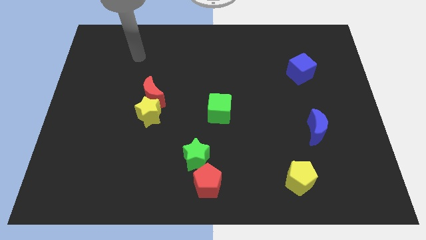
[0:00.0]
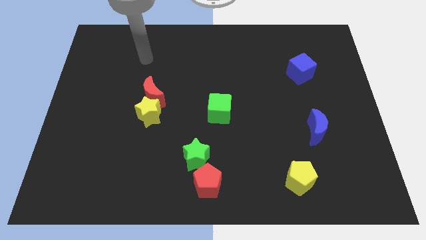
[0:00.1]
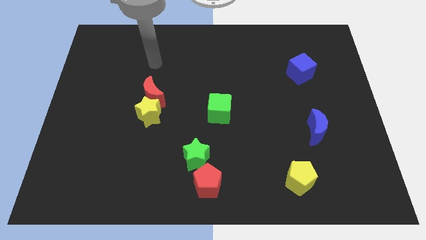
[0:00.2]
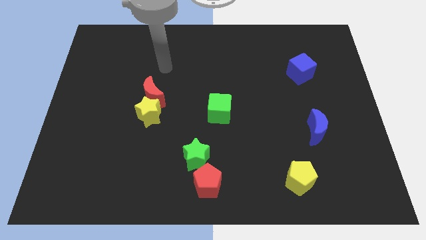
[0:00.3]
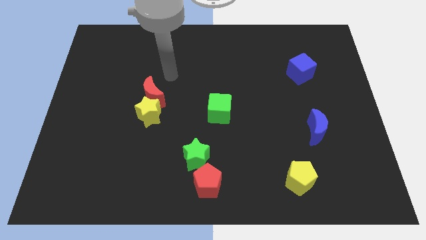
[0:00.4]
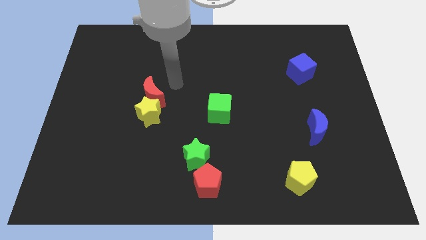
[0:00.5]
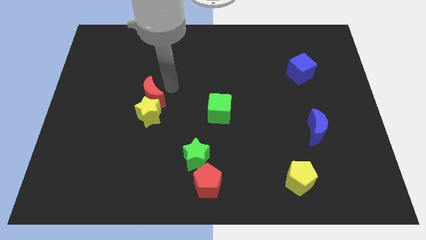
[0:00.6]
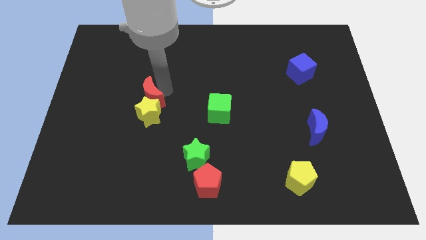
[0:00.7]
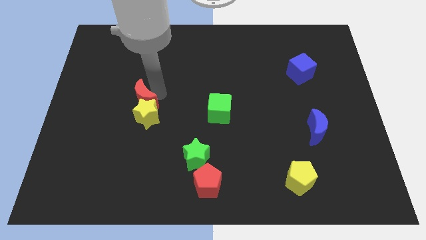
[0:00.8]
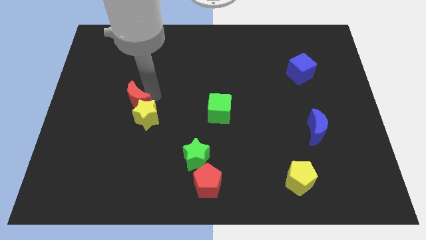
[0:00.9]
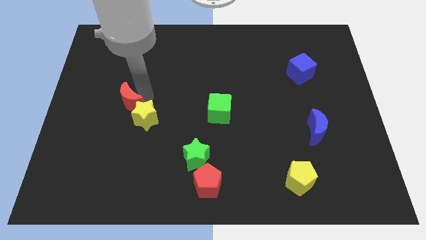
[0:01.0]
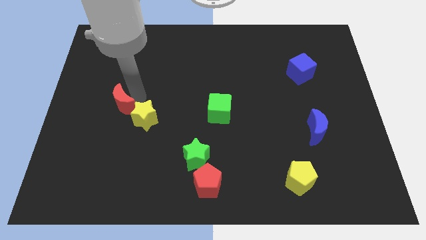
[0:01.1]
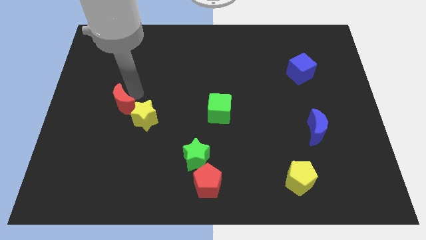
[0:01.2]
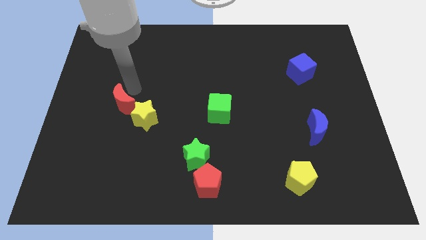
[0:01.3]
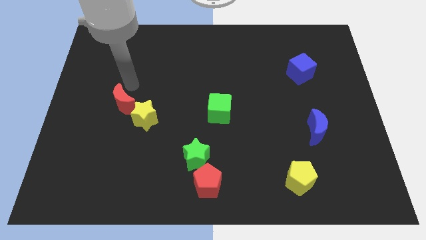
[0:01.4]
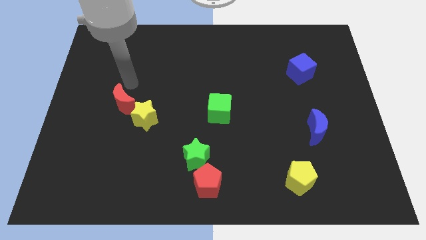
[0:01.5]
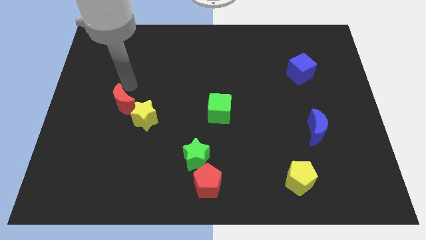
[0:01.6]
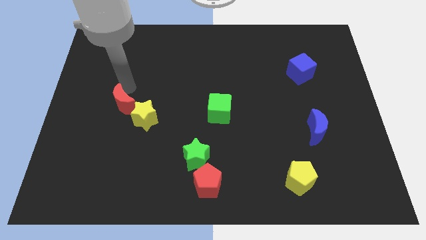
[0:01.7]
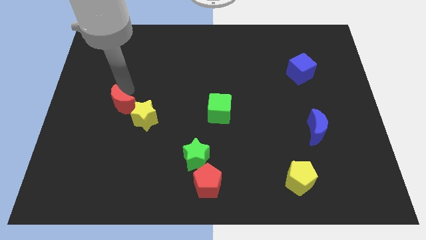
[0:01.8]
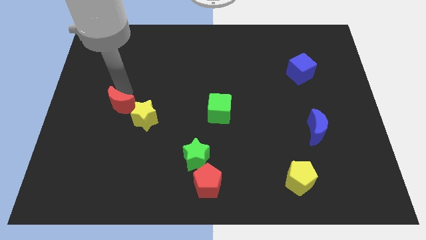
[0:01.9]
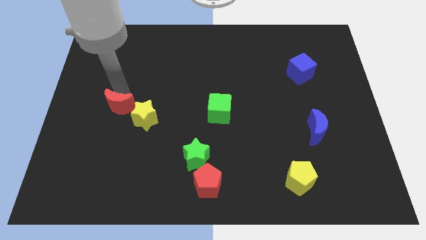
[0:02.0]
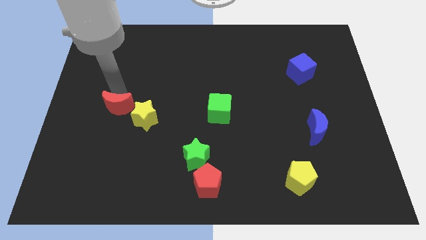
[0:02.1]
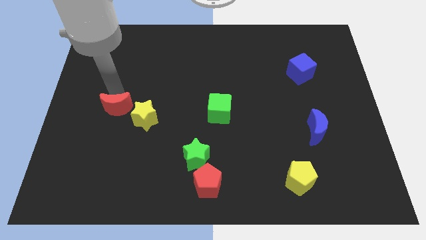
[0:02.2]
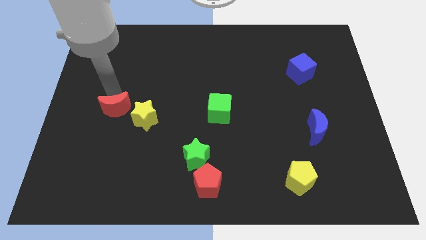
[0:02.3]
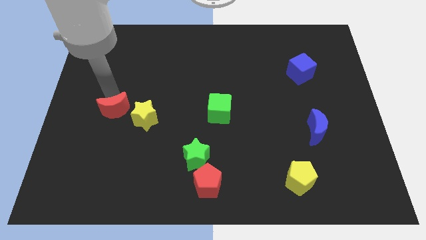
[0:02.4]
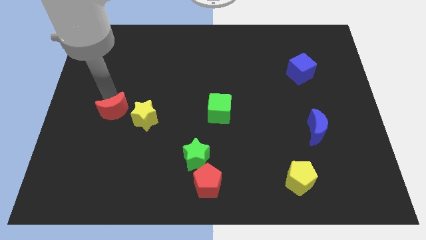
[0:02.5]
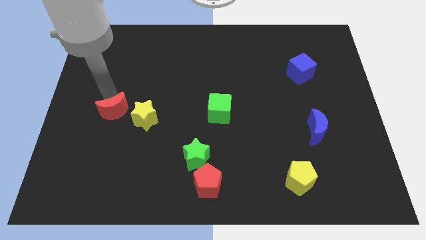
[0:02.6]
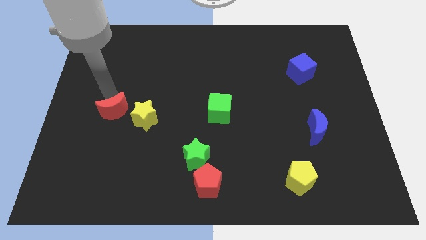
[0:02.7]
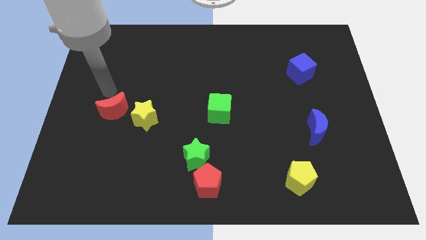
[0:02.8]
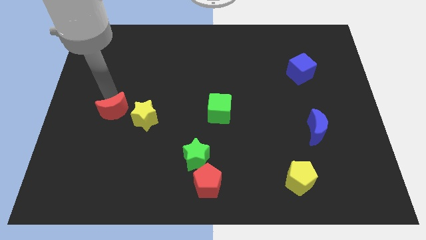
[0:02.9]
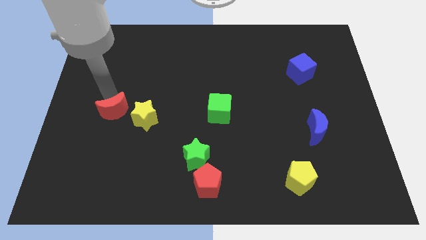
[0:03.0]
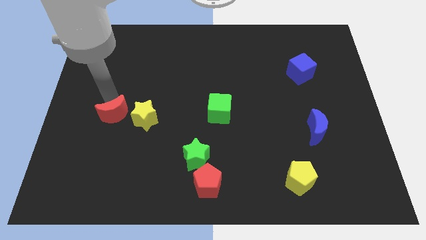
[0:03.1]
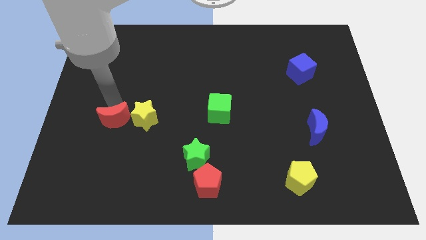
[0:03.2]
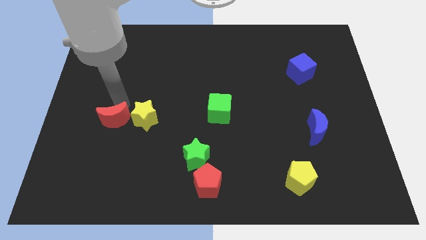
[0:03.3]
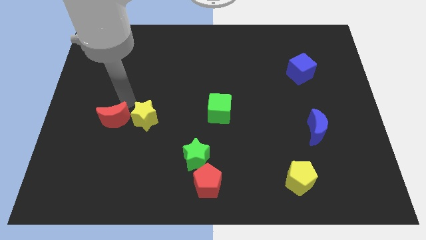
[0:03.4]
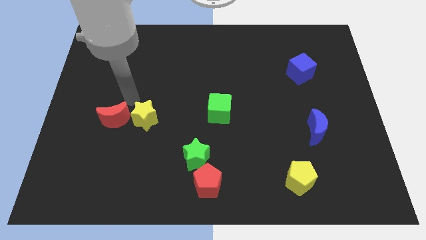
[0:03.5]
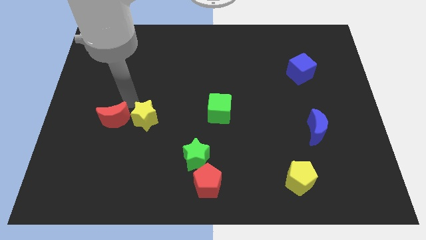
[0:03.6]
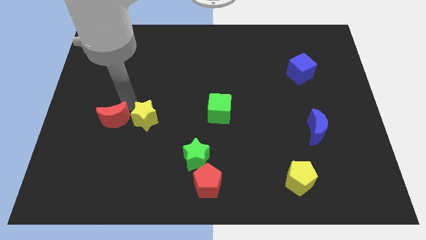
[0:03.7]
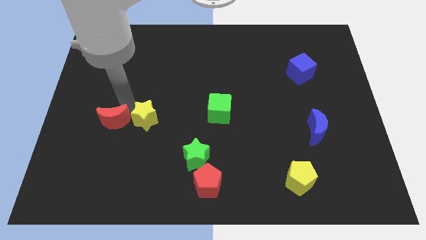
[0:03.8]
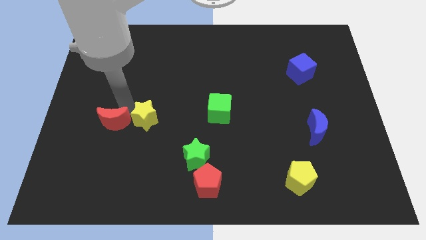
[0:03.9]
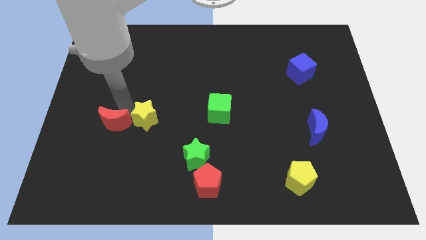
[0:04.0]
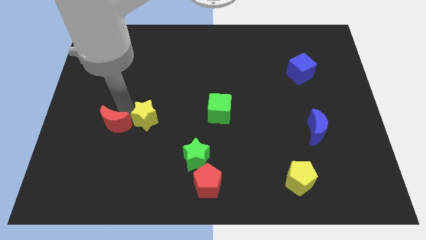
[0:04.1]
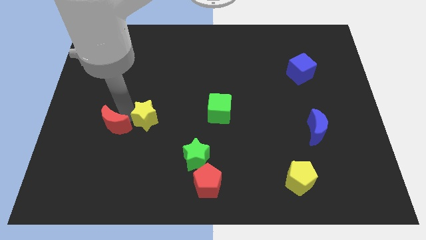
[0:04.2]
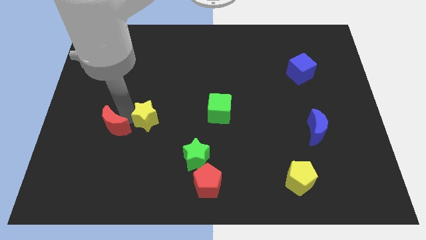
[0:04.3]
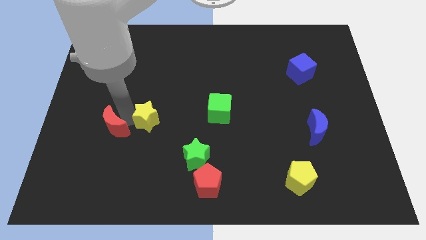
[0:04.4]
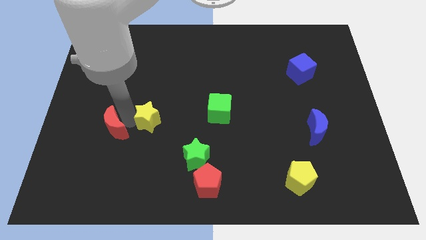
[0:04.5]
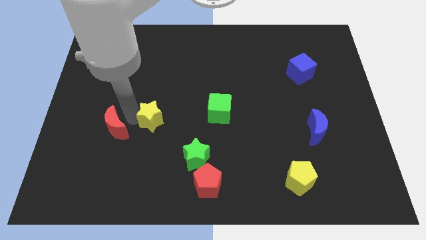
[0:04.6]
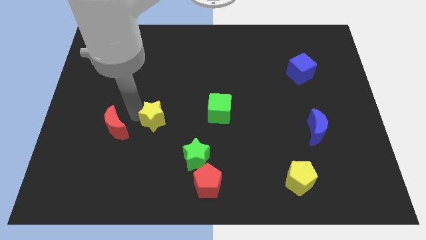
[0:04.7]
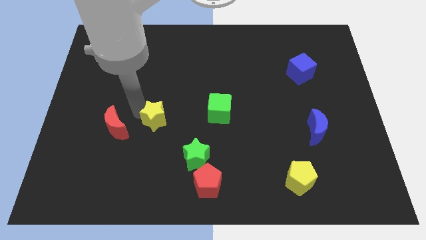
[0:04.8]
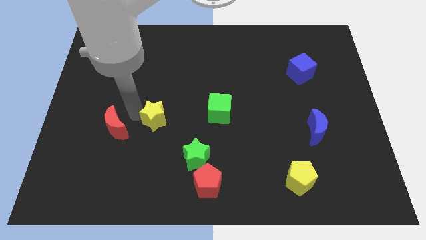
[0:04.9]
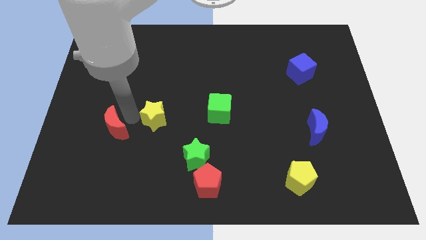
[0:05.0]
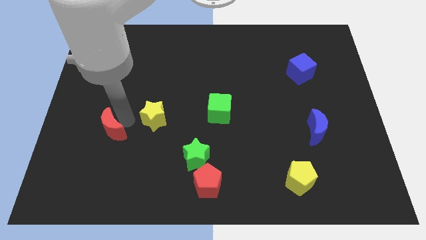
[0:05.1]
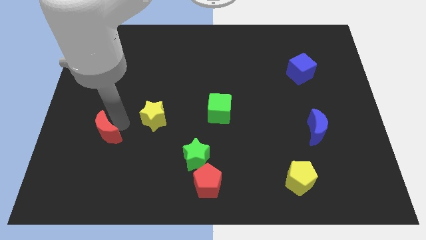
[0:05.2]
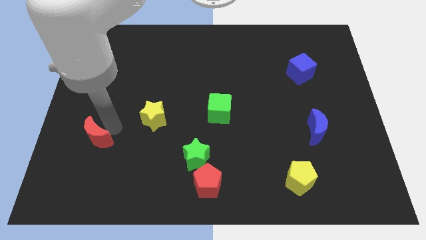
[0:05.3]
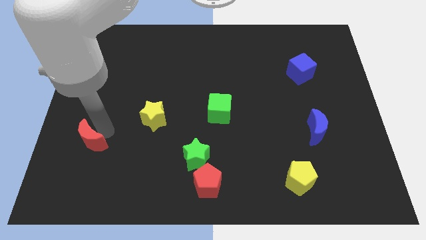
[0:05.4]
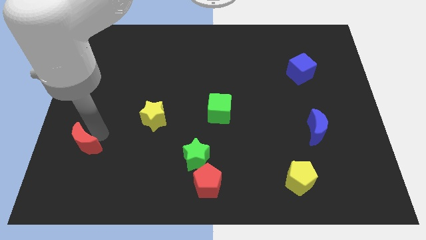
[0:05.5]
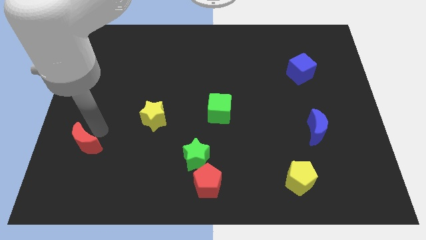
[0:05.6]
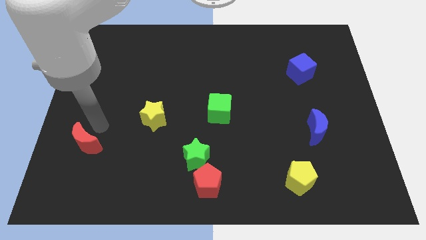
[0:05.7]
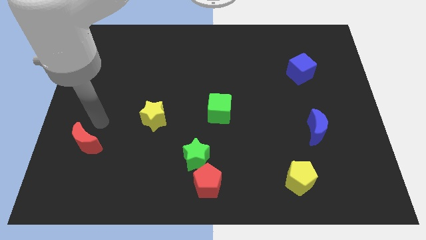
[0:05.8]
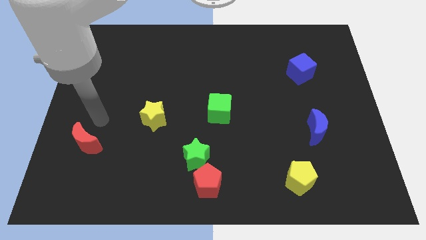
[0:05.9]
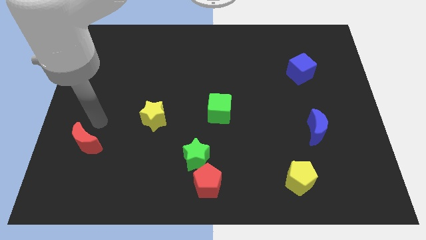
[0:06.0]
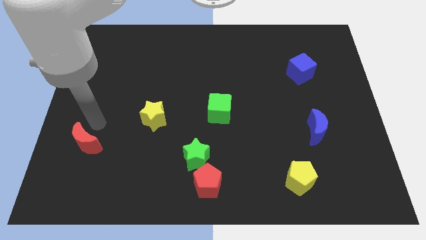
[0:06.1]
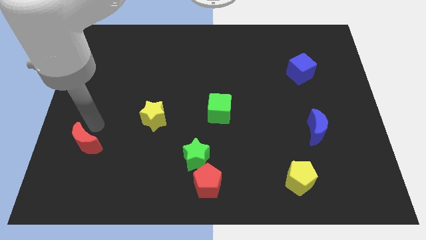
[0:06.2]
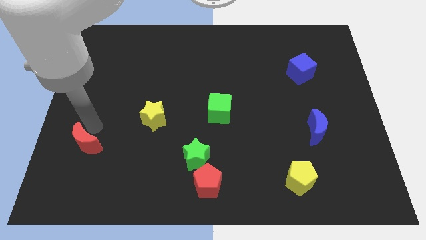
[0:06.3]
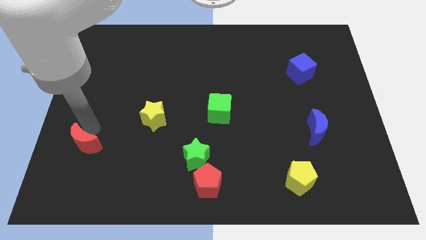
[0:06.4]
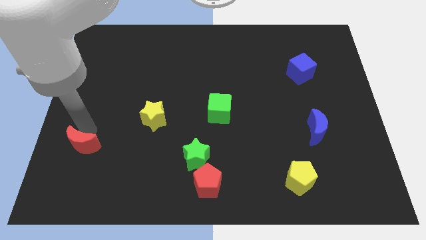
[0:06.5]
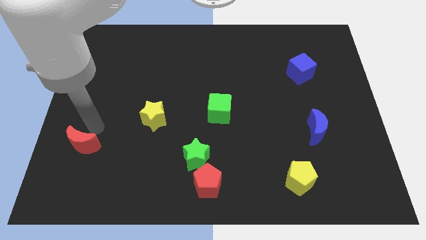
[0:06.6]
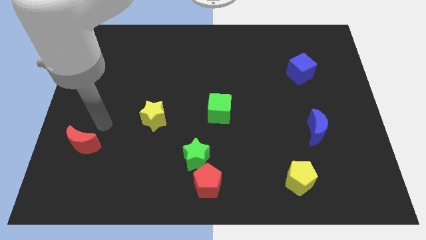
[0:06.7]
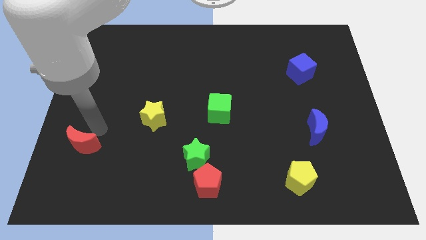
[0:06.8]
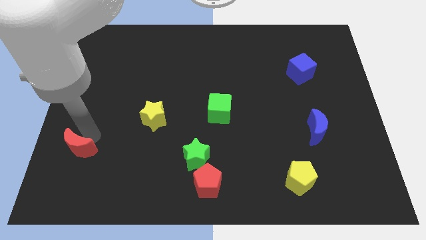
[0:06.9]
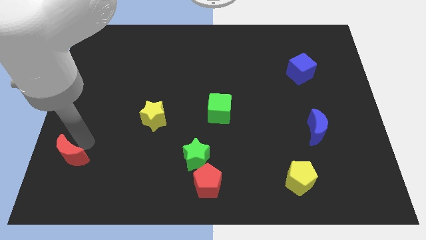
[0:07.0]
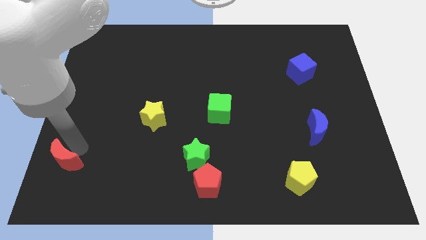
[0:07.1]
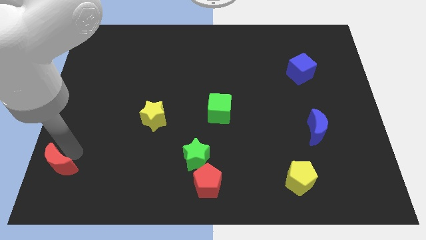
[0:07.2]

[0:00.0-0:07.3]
move the red moon to the lower left corner
